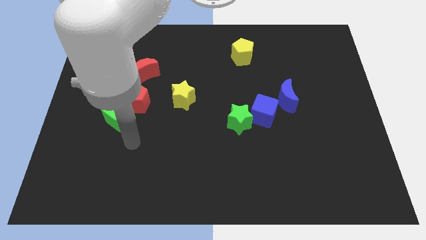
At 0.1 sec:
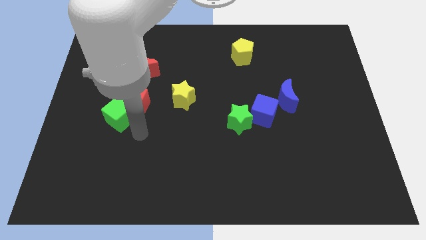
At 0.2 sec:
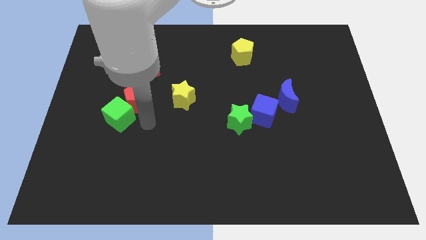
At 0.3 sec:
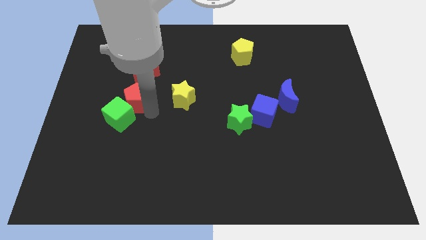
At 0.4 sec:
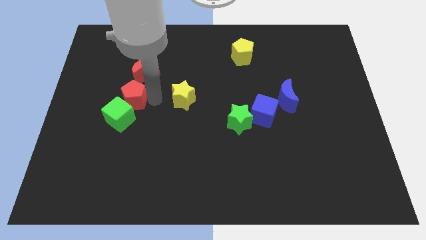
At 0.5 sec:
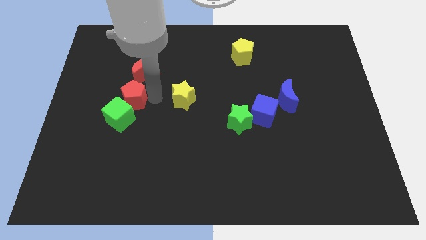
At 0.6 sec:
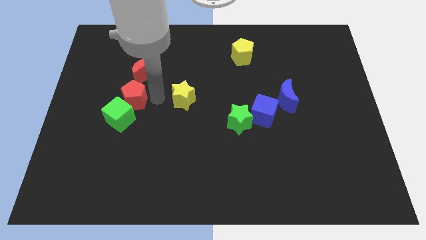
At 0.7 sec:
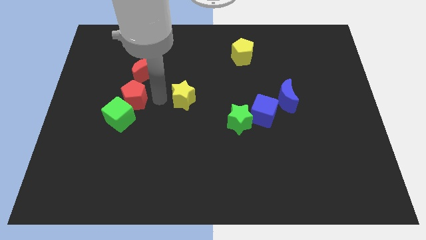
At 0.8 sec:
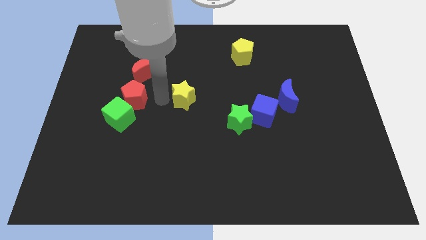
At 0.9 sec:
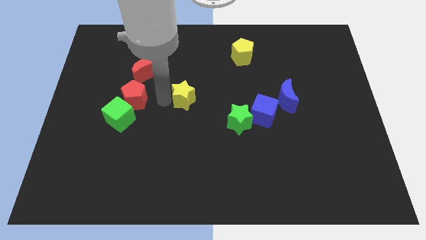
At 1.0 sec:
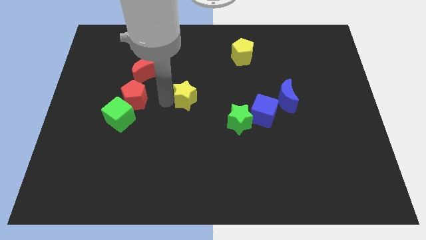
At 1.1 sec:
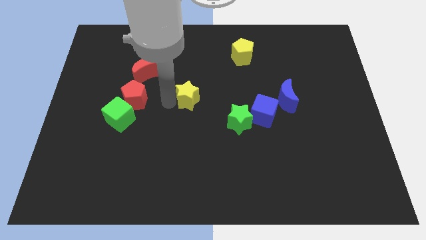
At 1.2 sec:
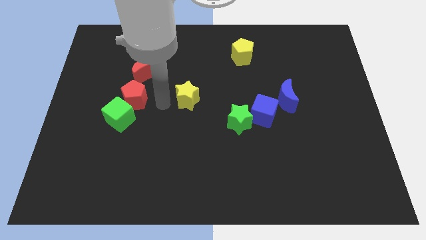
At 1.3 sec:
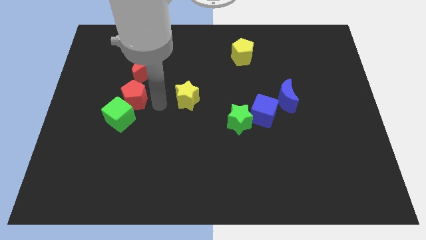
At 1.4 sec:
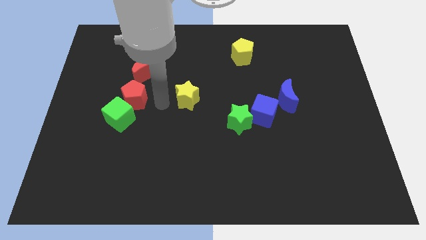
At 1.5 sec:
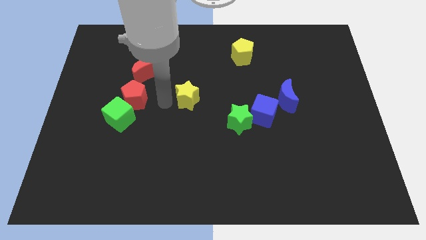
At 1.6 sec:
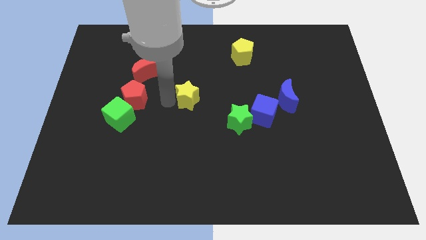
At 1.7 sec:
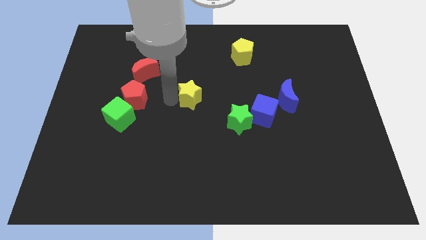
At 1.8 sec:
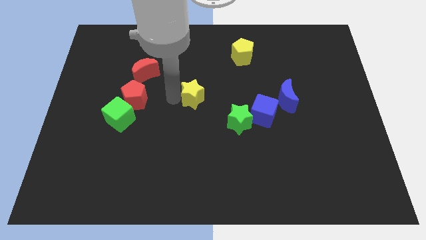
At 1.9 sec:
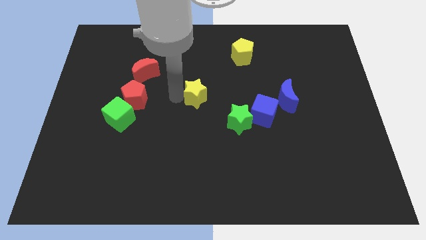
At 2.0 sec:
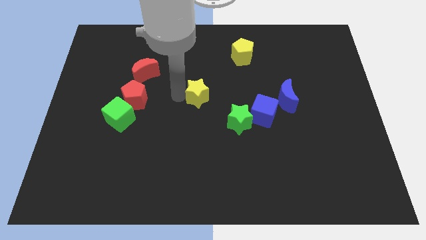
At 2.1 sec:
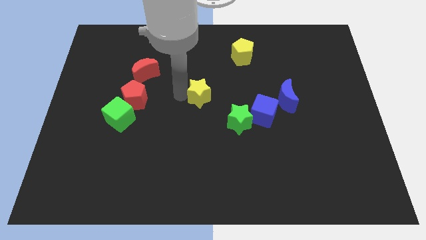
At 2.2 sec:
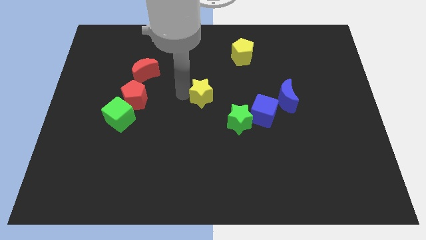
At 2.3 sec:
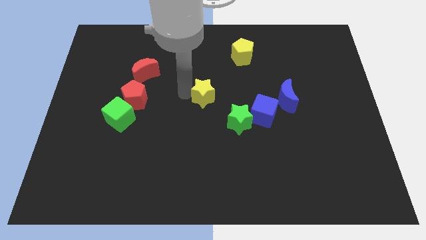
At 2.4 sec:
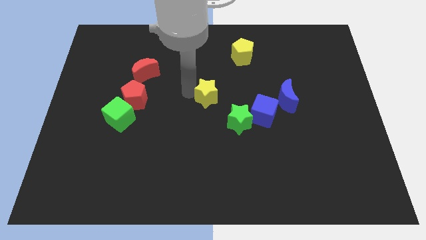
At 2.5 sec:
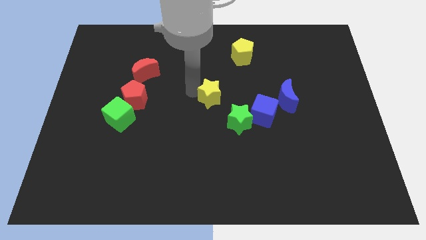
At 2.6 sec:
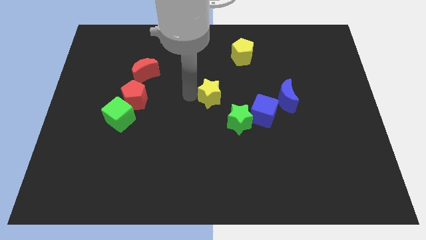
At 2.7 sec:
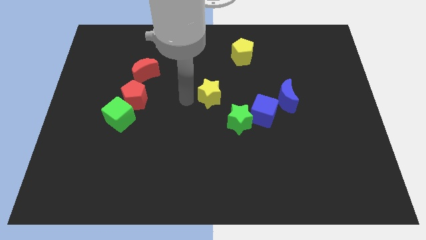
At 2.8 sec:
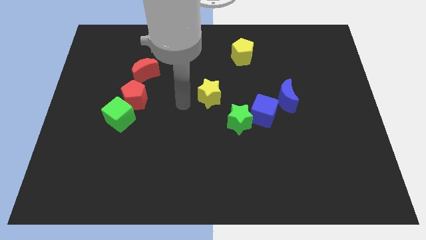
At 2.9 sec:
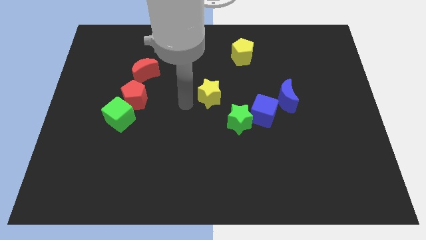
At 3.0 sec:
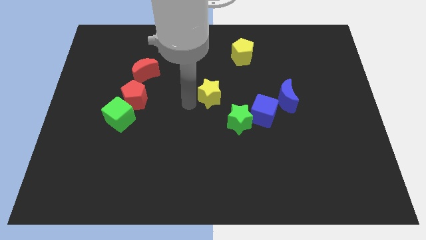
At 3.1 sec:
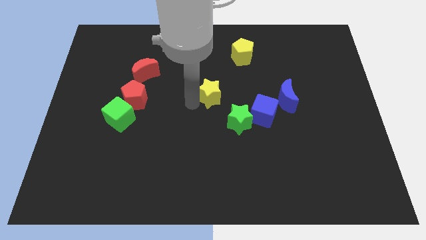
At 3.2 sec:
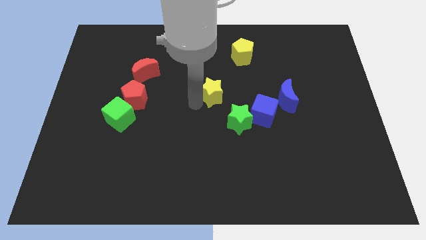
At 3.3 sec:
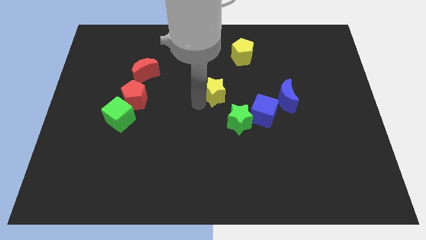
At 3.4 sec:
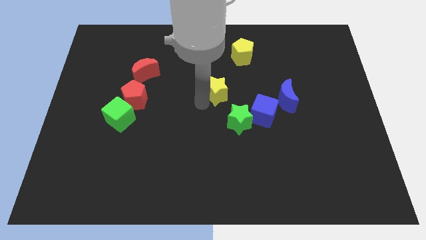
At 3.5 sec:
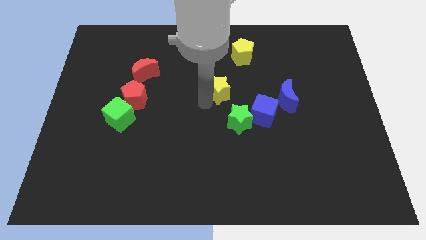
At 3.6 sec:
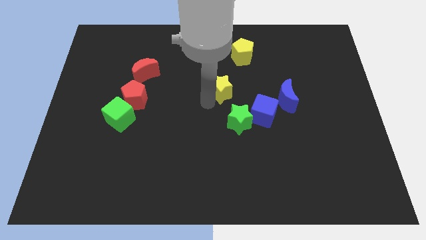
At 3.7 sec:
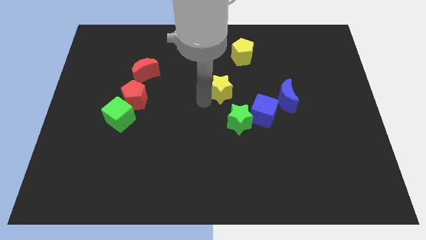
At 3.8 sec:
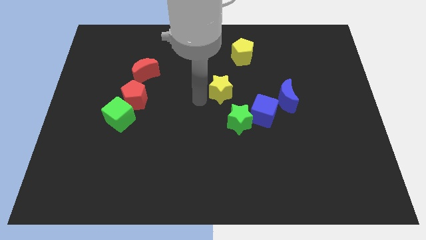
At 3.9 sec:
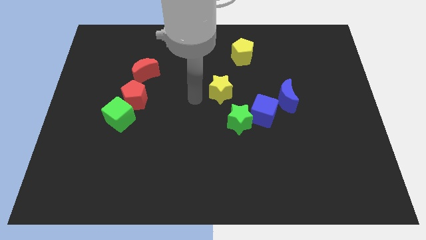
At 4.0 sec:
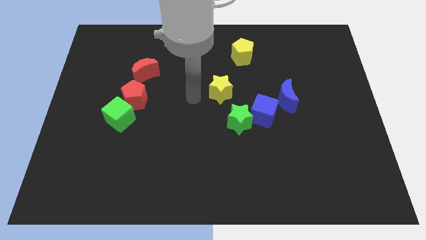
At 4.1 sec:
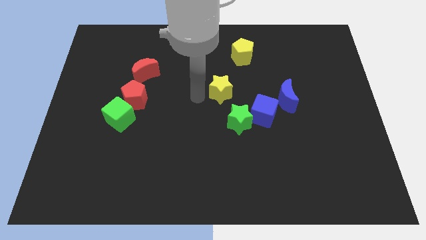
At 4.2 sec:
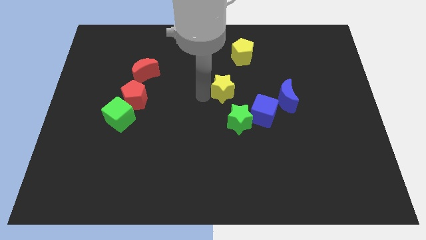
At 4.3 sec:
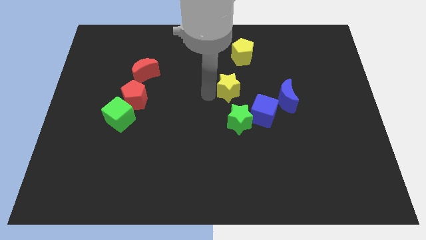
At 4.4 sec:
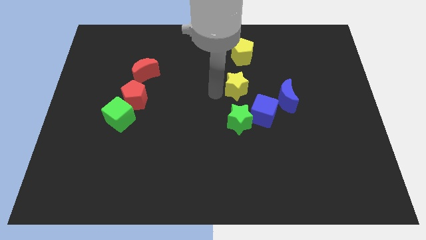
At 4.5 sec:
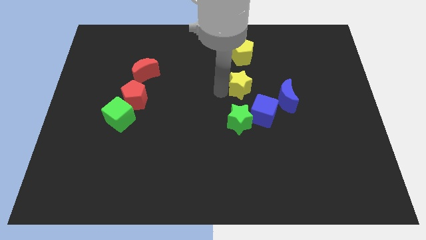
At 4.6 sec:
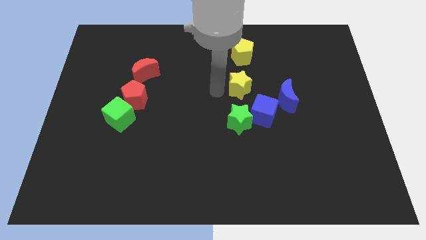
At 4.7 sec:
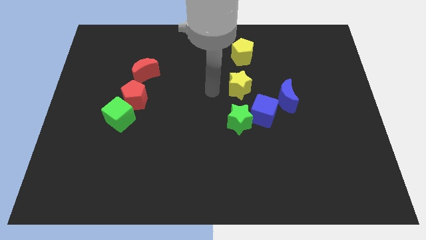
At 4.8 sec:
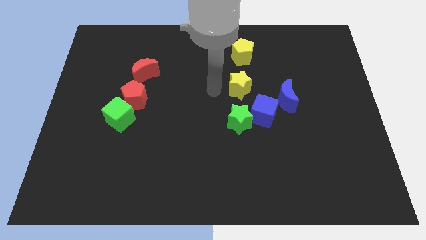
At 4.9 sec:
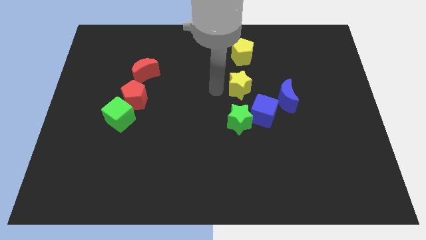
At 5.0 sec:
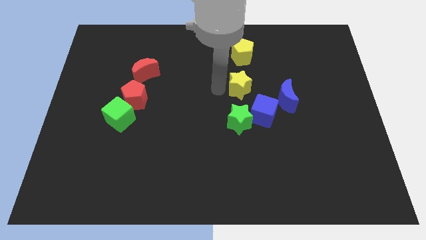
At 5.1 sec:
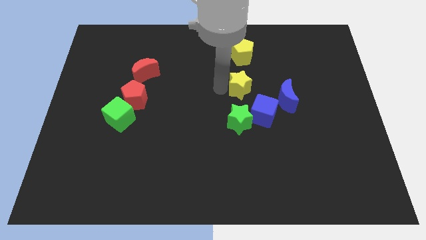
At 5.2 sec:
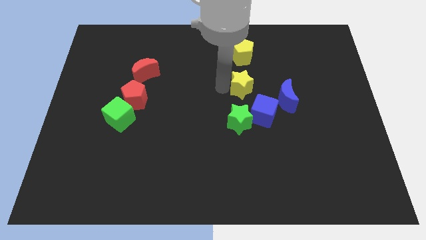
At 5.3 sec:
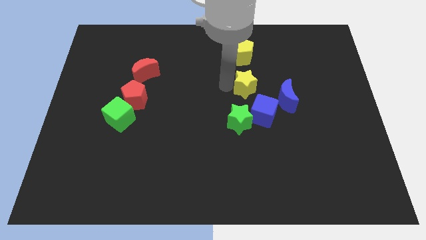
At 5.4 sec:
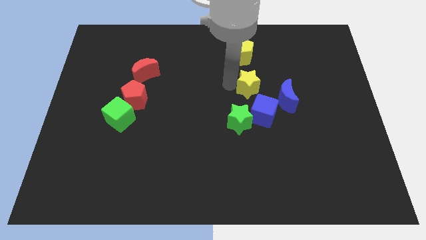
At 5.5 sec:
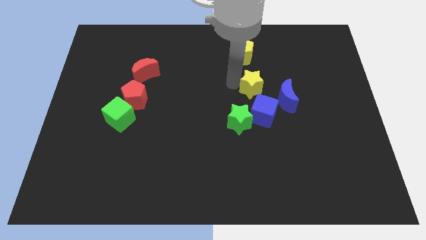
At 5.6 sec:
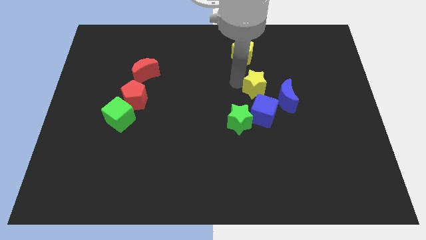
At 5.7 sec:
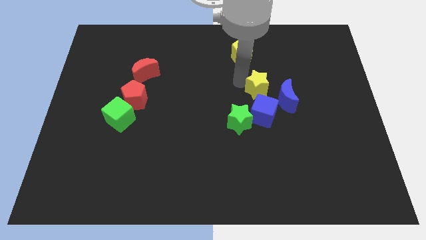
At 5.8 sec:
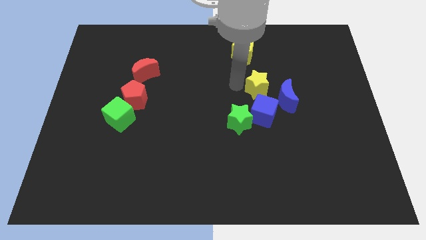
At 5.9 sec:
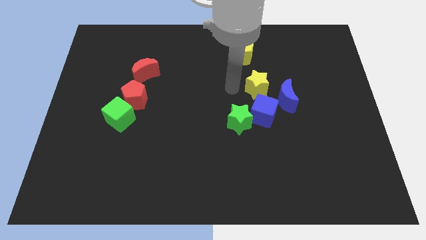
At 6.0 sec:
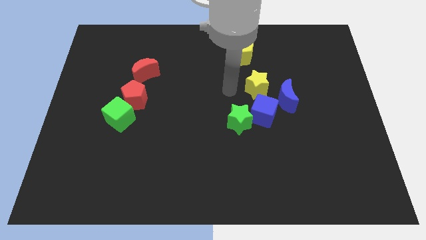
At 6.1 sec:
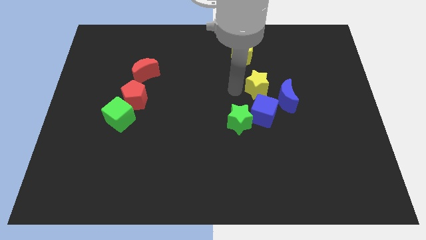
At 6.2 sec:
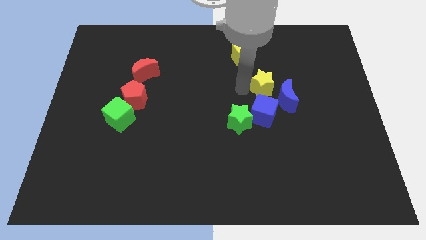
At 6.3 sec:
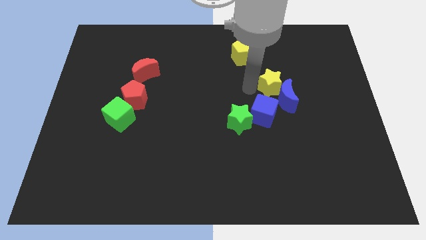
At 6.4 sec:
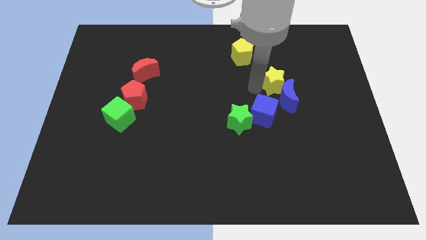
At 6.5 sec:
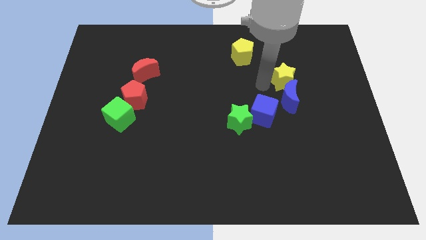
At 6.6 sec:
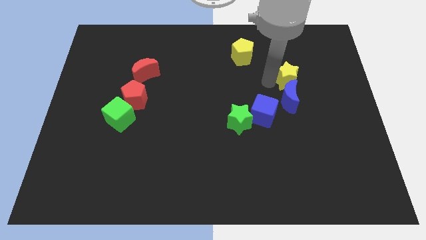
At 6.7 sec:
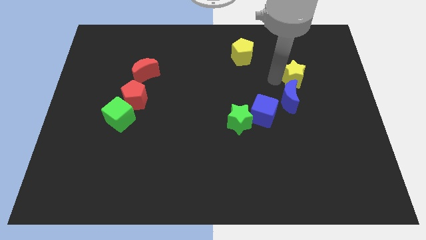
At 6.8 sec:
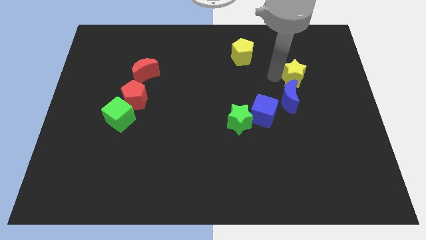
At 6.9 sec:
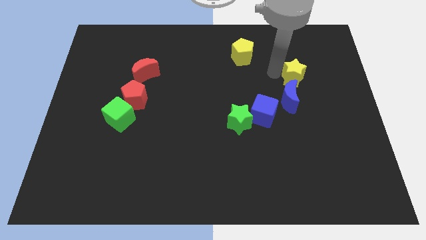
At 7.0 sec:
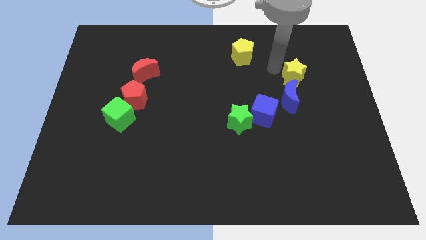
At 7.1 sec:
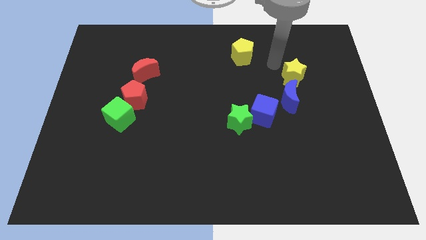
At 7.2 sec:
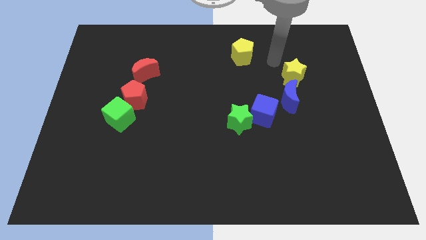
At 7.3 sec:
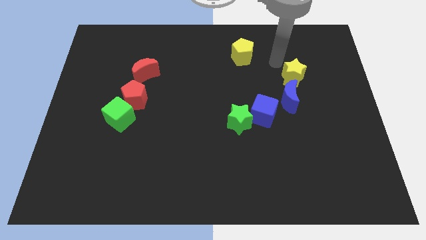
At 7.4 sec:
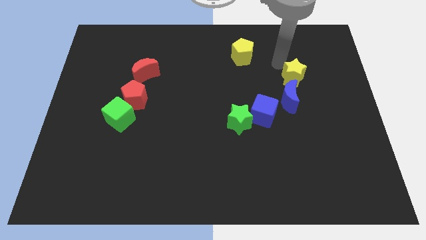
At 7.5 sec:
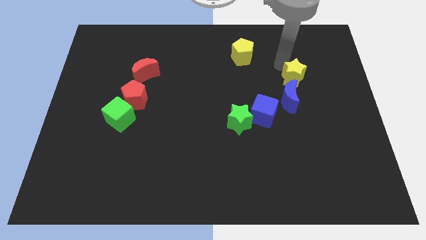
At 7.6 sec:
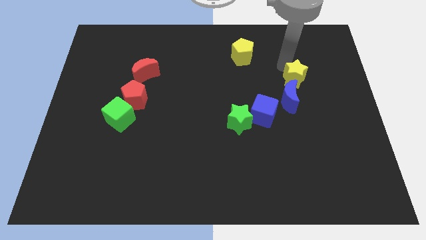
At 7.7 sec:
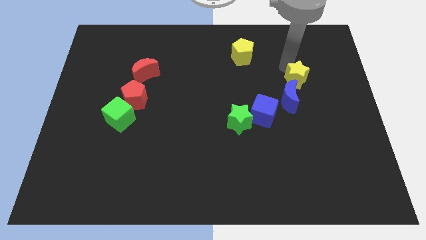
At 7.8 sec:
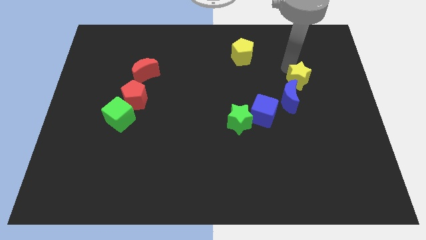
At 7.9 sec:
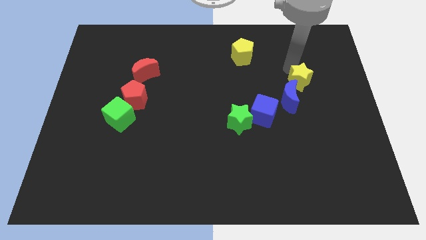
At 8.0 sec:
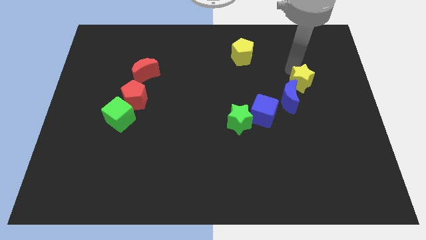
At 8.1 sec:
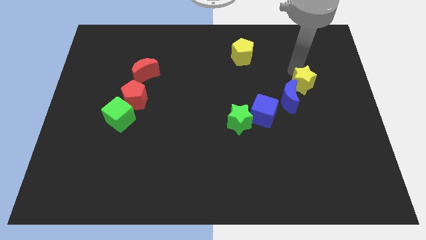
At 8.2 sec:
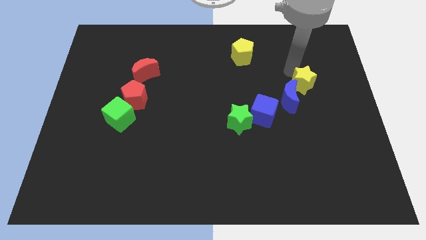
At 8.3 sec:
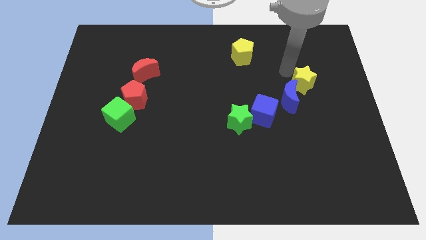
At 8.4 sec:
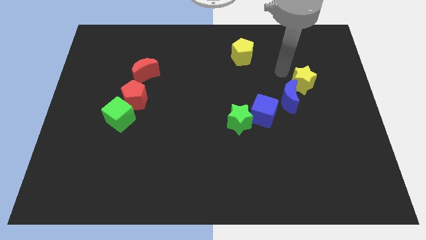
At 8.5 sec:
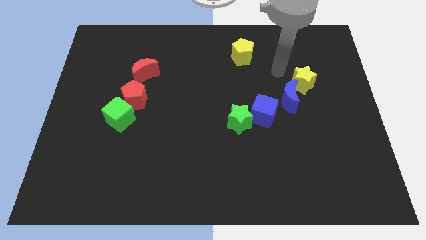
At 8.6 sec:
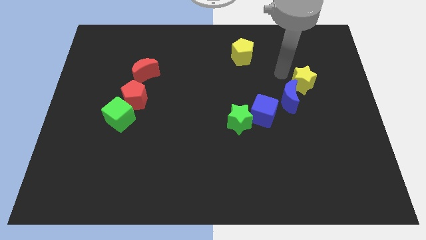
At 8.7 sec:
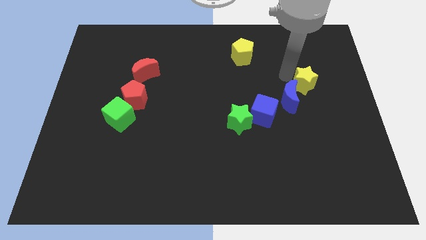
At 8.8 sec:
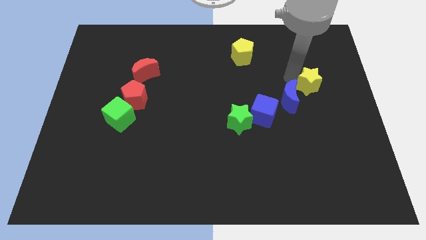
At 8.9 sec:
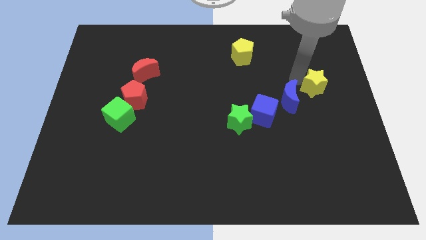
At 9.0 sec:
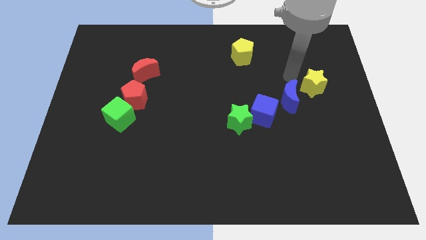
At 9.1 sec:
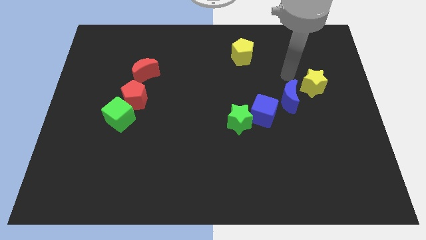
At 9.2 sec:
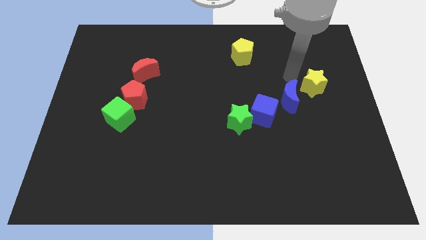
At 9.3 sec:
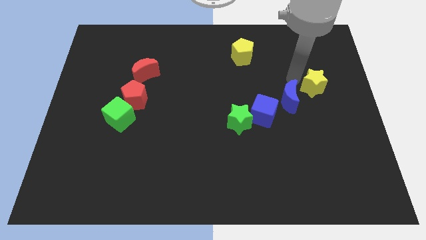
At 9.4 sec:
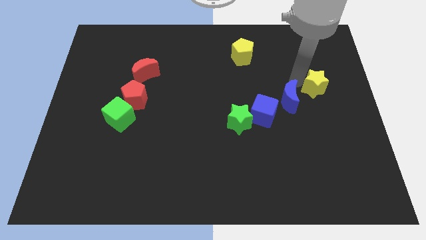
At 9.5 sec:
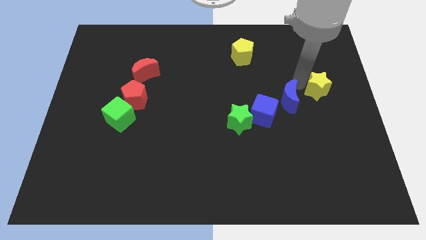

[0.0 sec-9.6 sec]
move the yellow star to the center right
